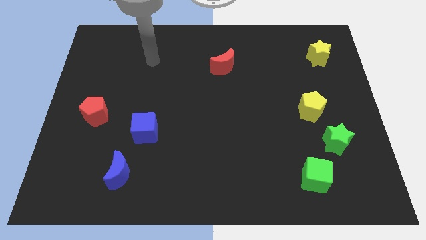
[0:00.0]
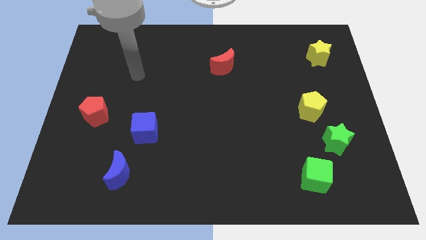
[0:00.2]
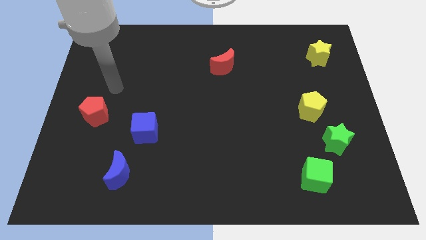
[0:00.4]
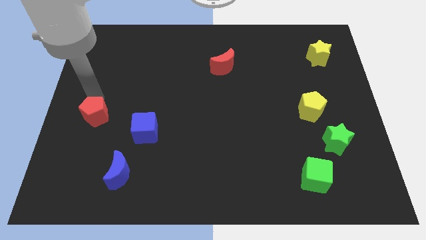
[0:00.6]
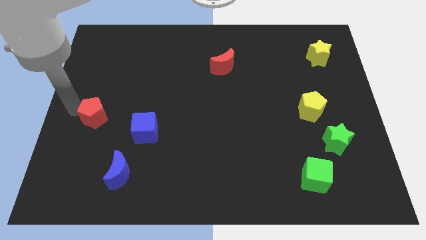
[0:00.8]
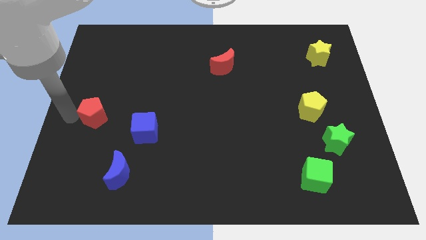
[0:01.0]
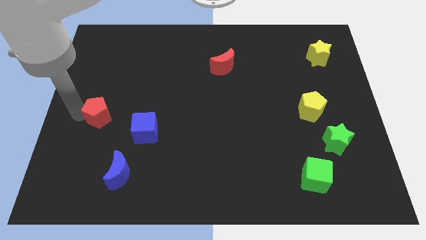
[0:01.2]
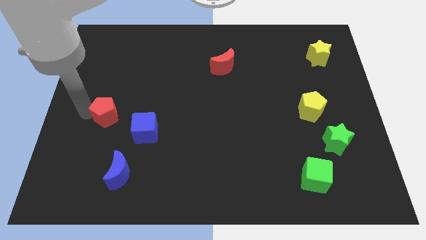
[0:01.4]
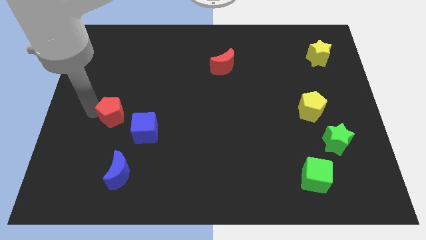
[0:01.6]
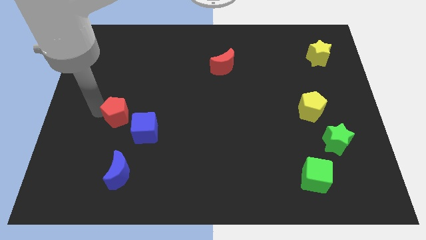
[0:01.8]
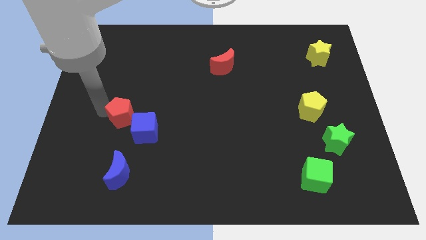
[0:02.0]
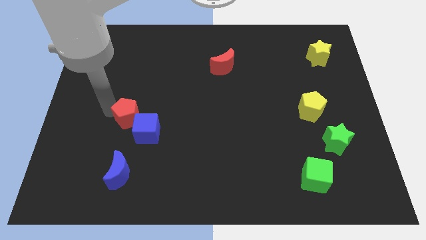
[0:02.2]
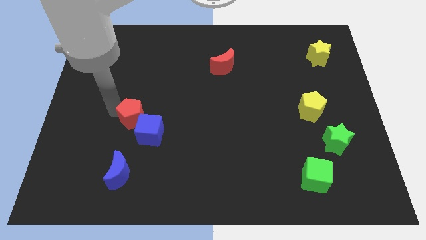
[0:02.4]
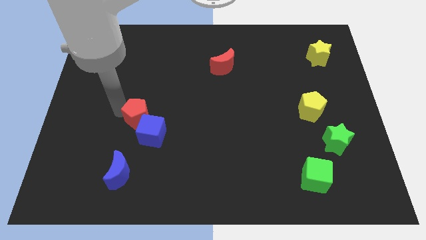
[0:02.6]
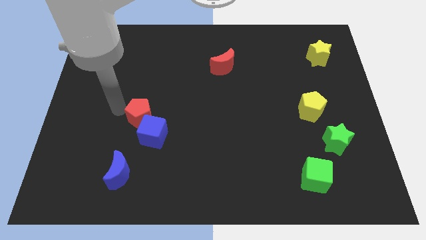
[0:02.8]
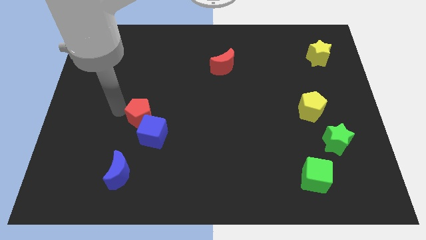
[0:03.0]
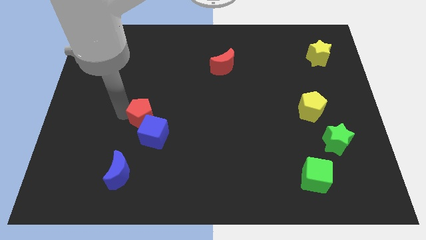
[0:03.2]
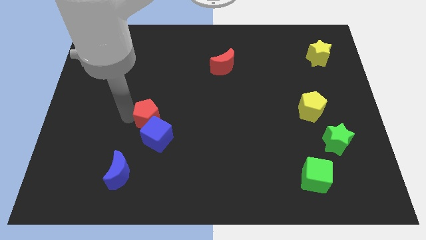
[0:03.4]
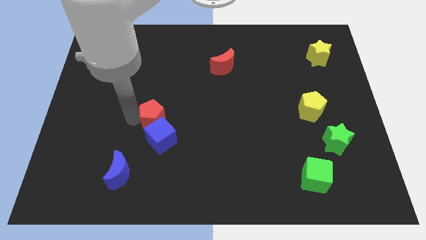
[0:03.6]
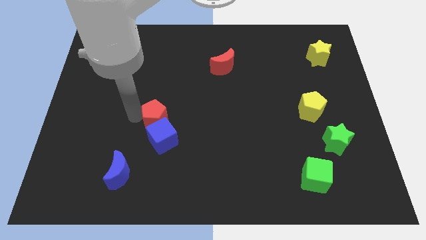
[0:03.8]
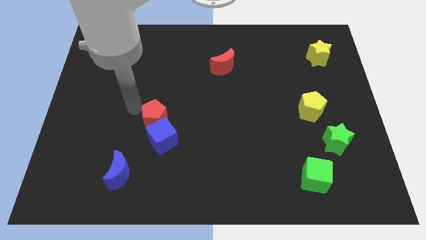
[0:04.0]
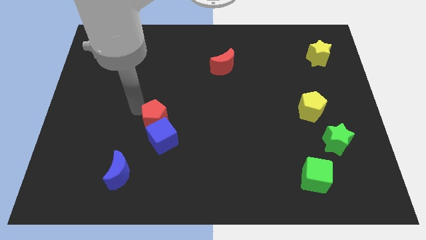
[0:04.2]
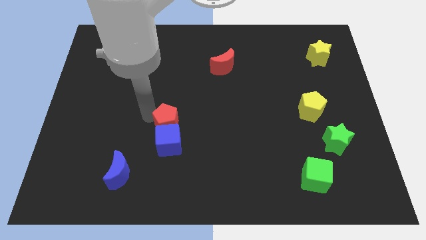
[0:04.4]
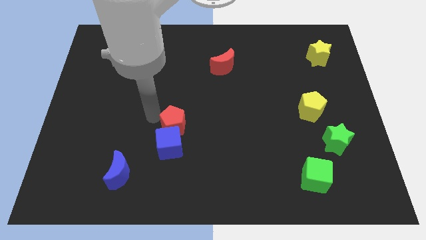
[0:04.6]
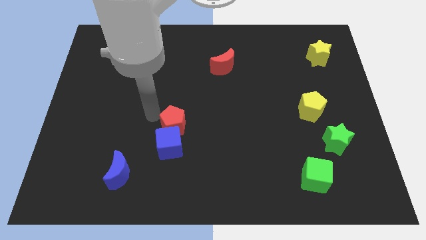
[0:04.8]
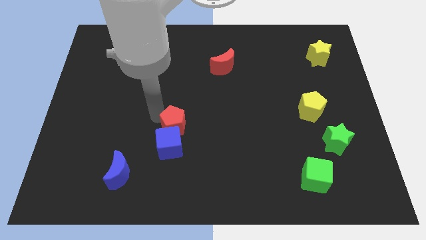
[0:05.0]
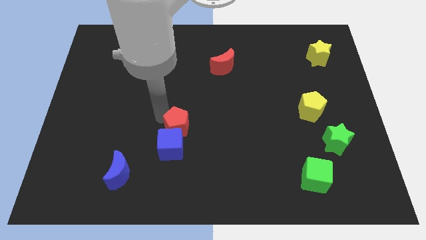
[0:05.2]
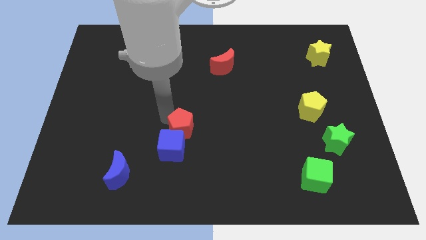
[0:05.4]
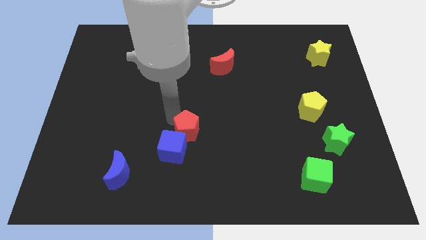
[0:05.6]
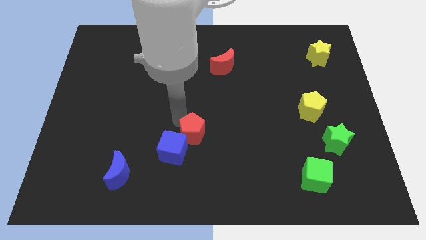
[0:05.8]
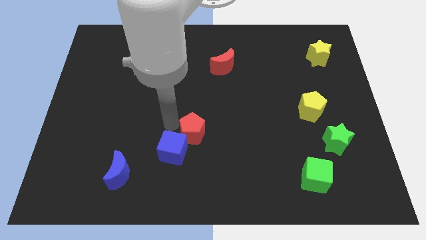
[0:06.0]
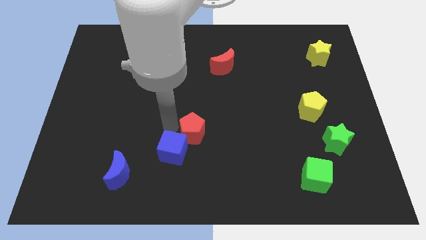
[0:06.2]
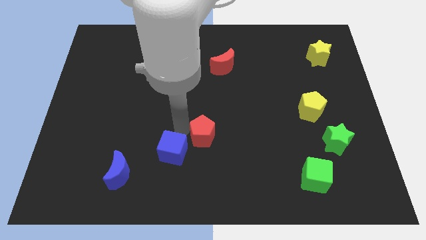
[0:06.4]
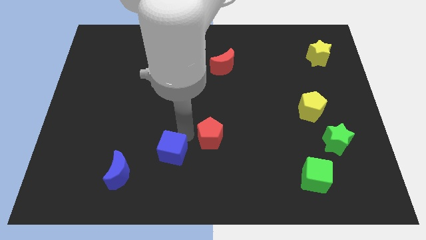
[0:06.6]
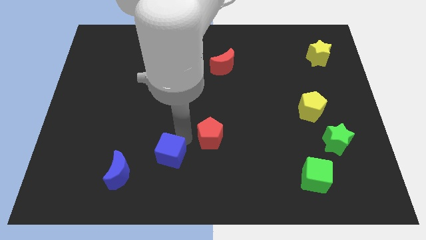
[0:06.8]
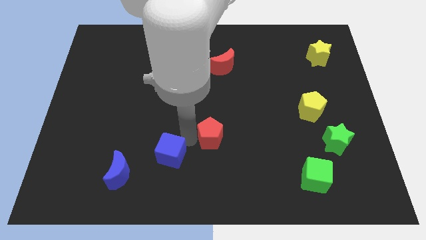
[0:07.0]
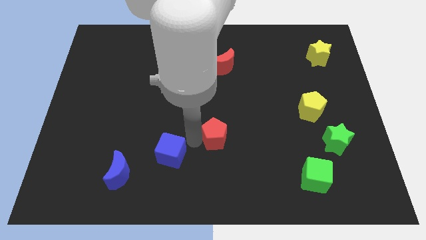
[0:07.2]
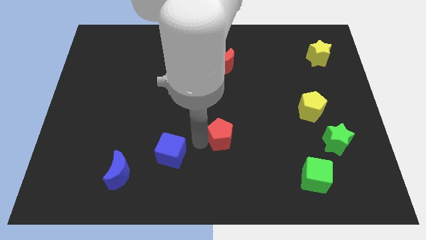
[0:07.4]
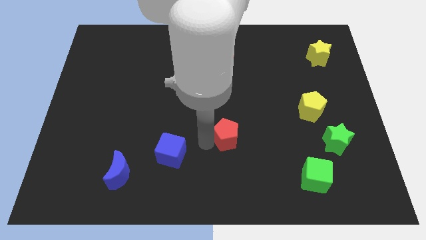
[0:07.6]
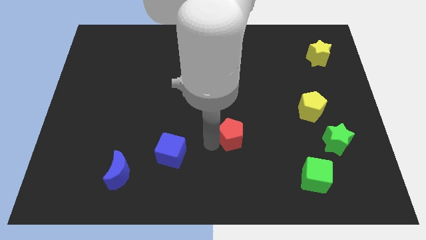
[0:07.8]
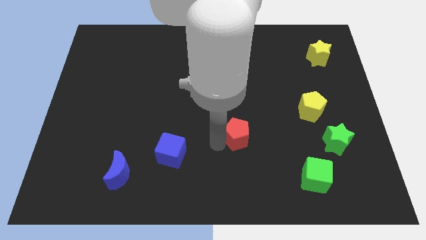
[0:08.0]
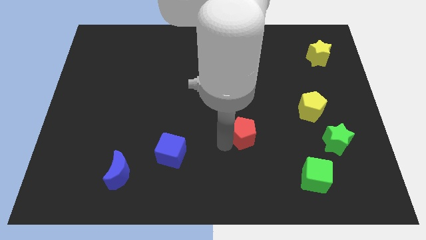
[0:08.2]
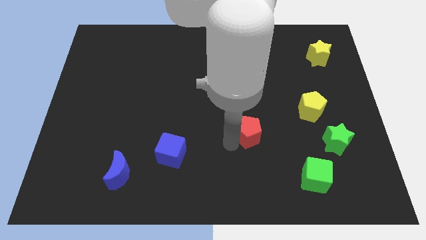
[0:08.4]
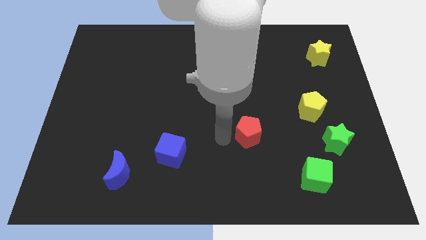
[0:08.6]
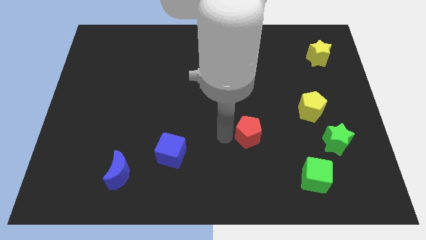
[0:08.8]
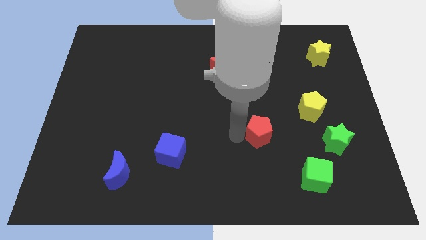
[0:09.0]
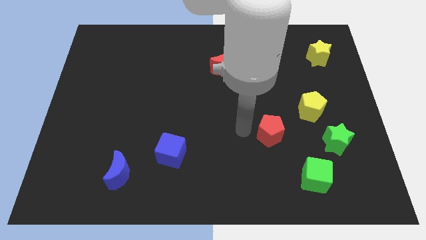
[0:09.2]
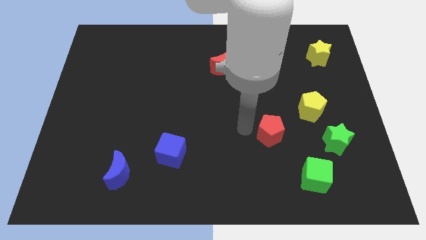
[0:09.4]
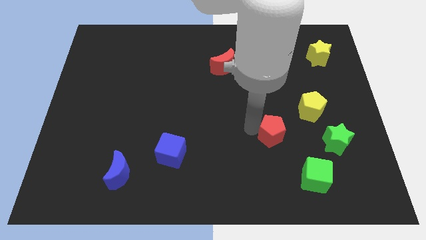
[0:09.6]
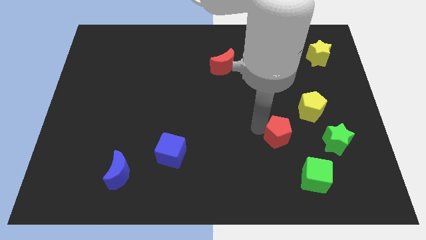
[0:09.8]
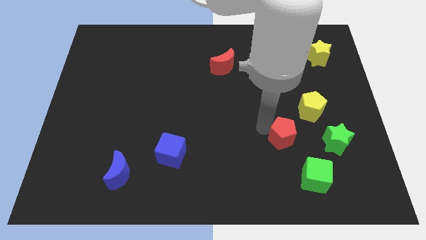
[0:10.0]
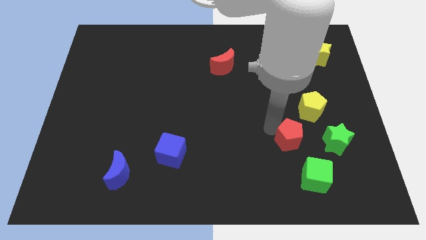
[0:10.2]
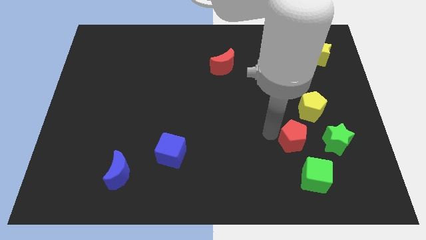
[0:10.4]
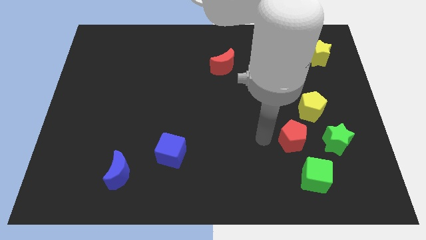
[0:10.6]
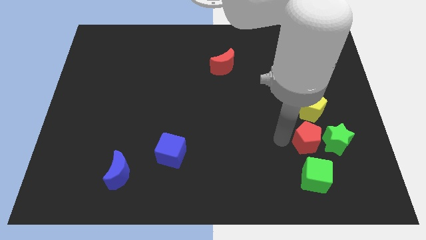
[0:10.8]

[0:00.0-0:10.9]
push the red pentagon next to the green star

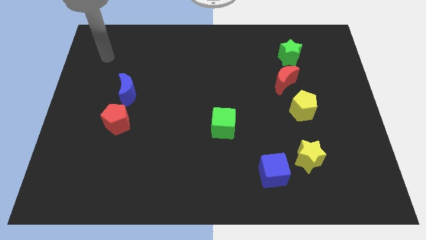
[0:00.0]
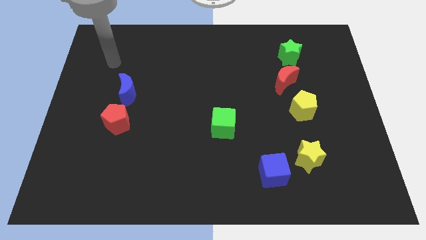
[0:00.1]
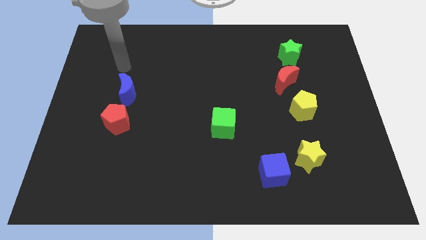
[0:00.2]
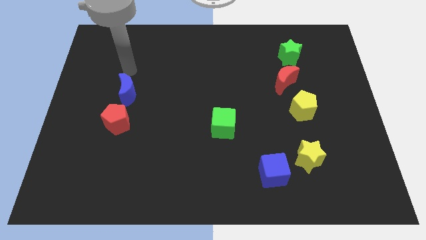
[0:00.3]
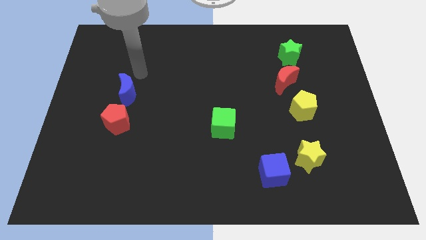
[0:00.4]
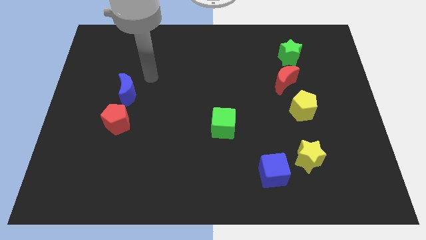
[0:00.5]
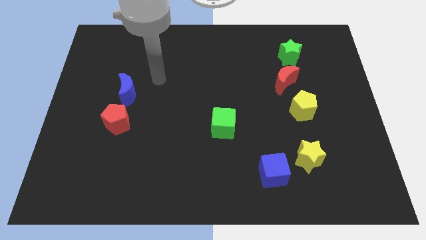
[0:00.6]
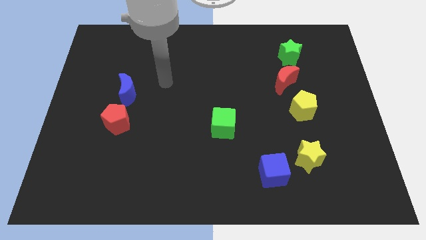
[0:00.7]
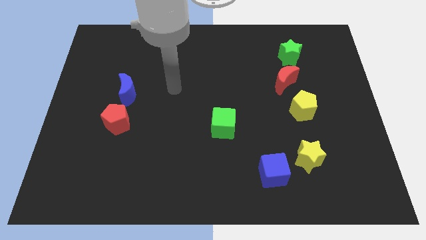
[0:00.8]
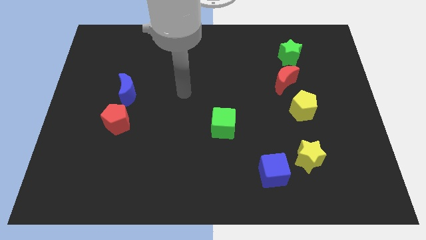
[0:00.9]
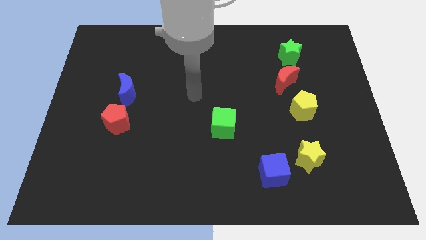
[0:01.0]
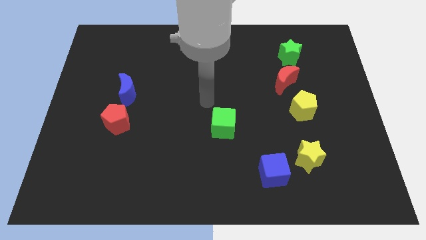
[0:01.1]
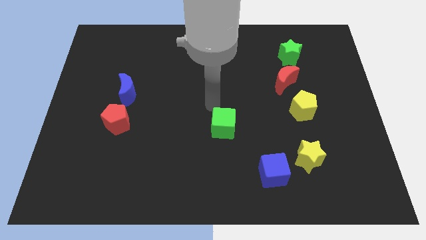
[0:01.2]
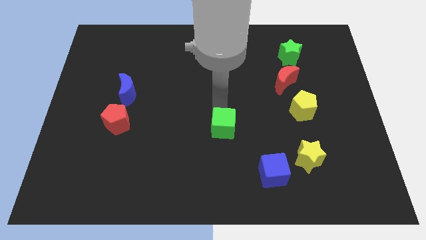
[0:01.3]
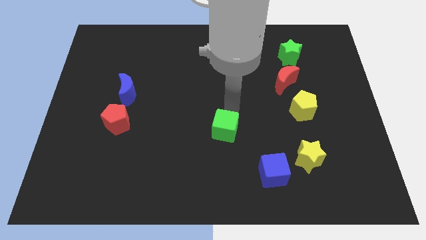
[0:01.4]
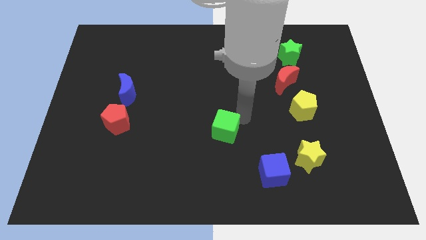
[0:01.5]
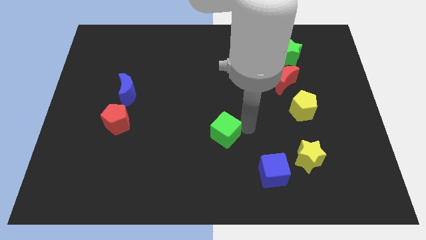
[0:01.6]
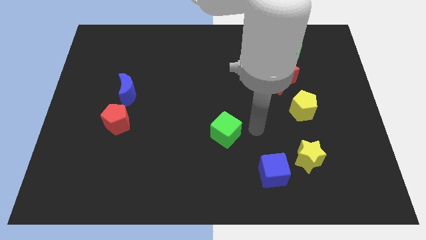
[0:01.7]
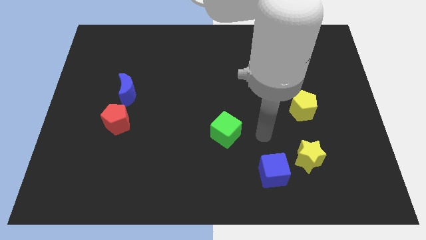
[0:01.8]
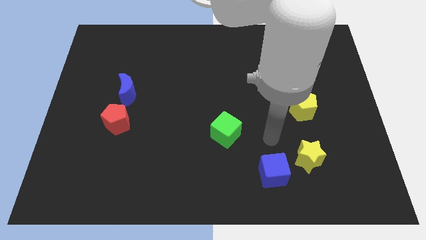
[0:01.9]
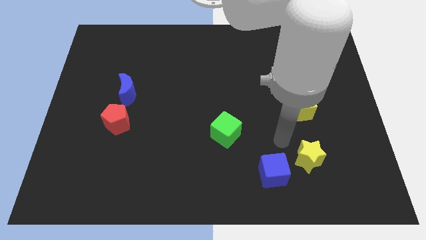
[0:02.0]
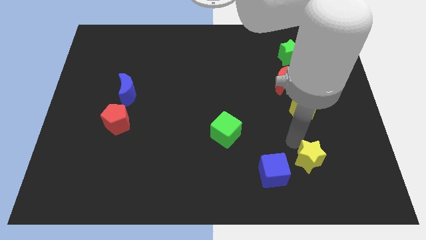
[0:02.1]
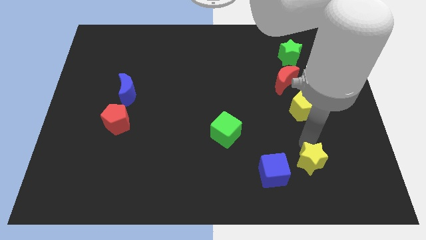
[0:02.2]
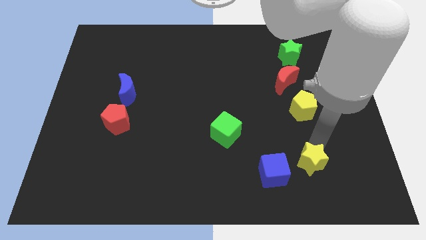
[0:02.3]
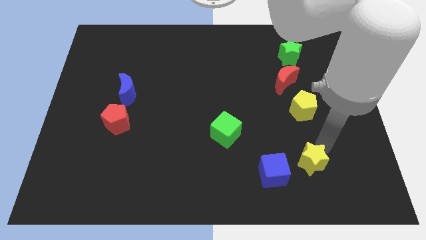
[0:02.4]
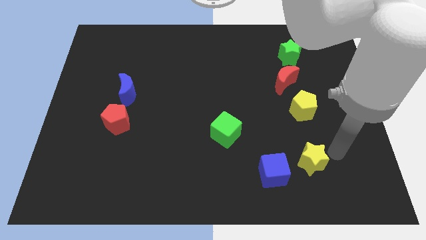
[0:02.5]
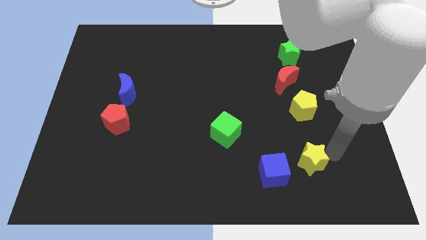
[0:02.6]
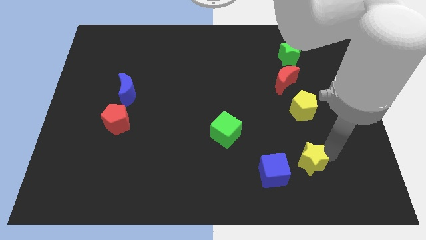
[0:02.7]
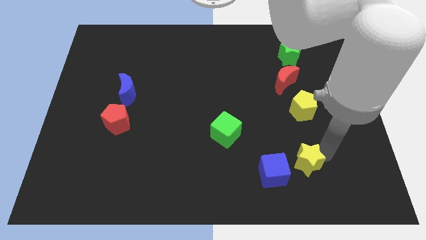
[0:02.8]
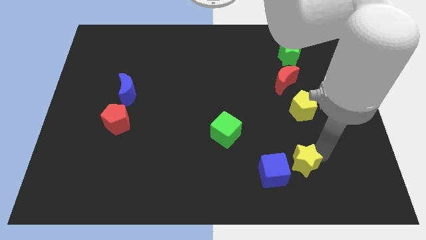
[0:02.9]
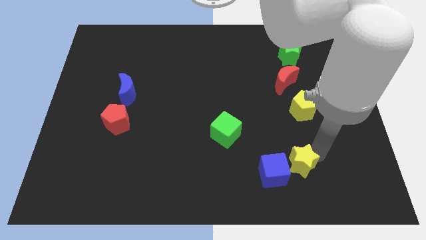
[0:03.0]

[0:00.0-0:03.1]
push the yellow star to the blue cube
